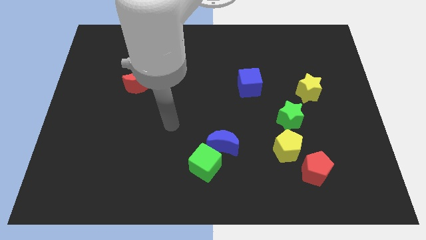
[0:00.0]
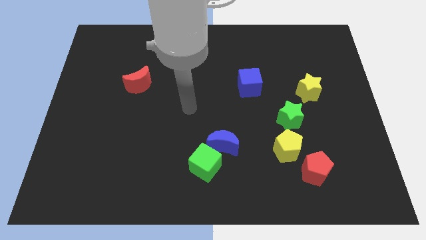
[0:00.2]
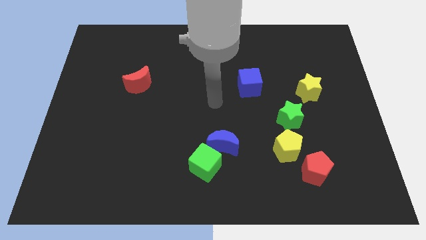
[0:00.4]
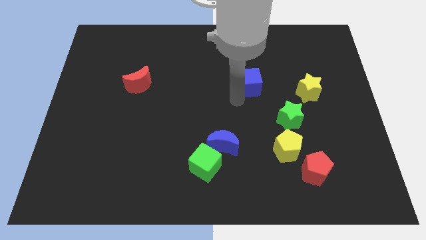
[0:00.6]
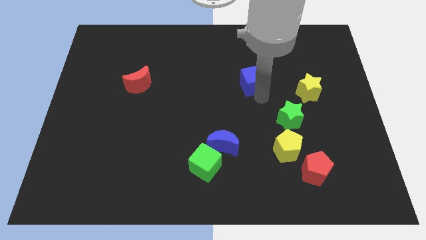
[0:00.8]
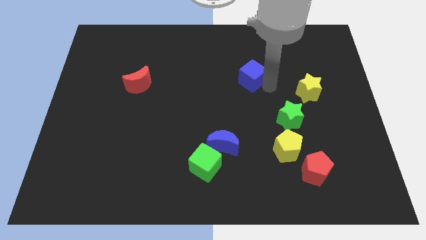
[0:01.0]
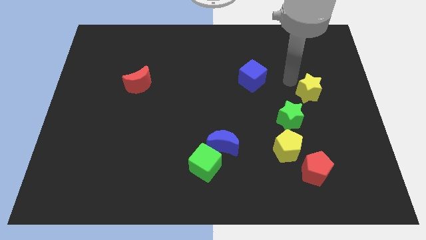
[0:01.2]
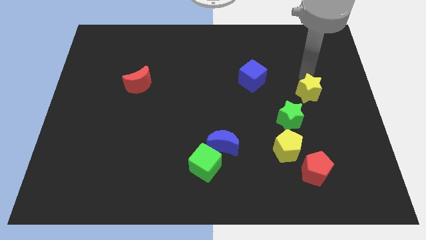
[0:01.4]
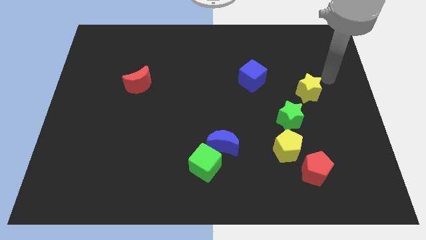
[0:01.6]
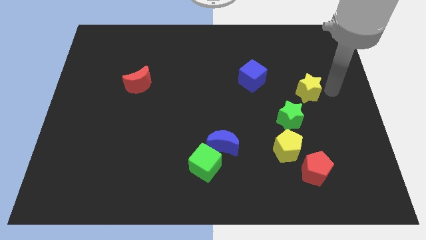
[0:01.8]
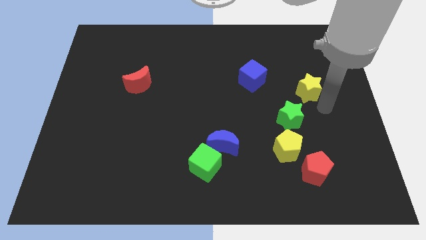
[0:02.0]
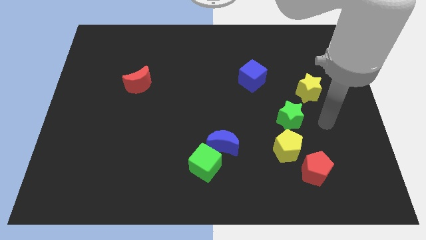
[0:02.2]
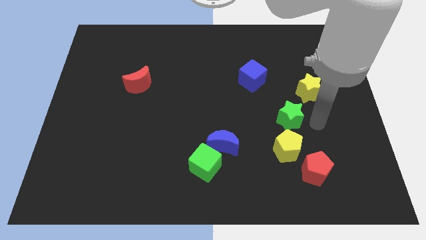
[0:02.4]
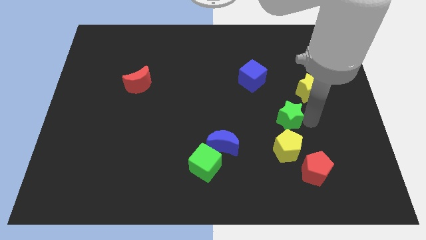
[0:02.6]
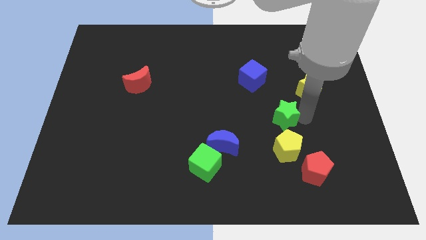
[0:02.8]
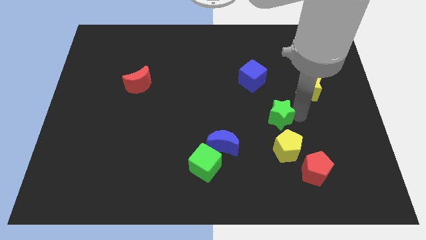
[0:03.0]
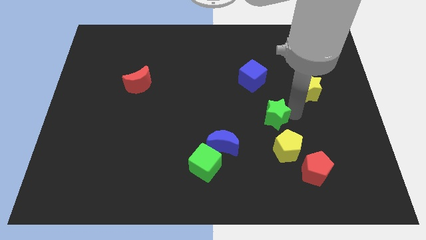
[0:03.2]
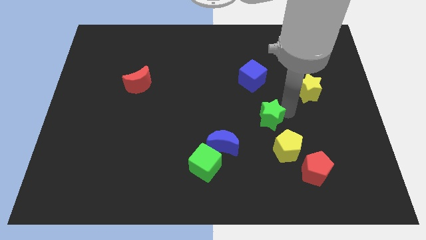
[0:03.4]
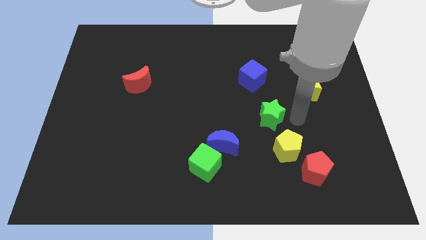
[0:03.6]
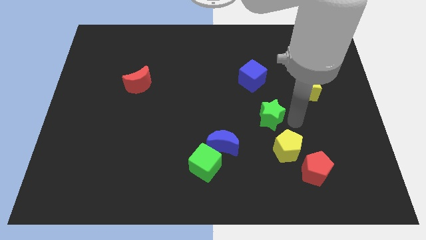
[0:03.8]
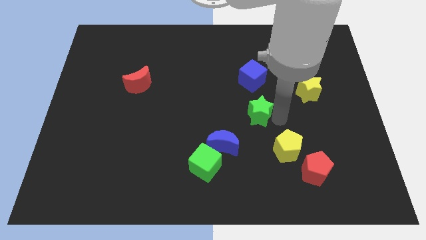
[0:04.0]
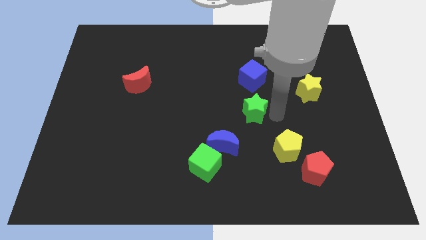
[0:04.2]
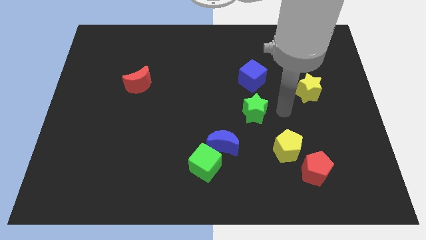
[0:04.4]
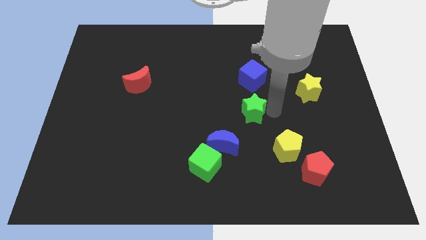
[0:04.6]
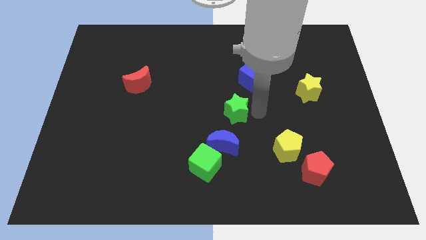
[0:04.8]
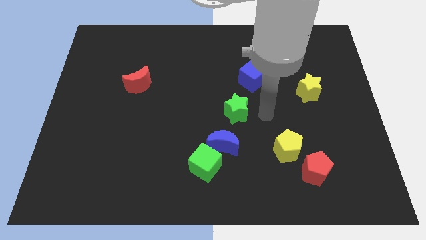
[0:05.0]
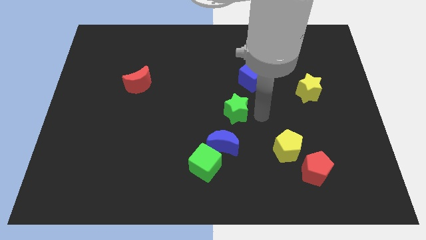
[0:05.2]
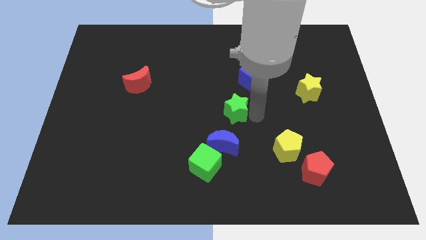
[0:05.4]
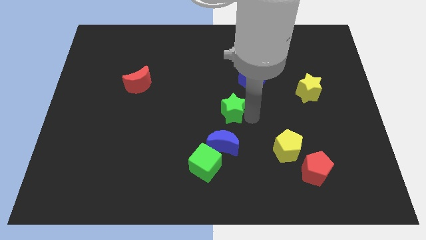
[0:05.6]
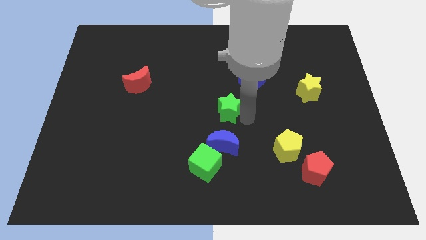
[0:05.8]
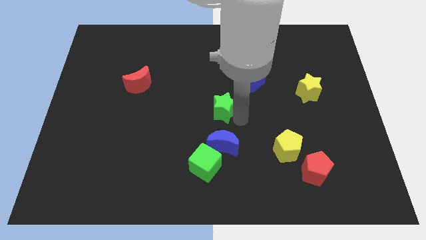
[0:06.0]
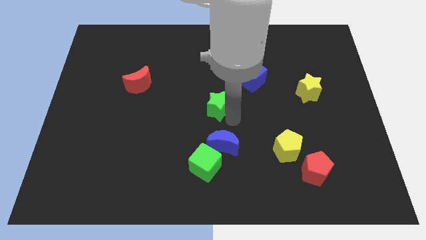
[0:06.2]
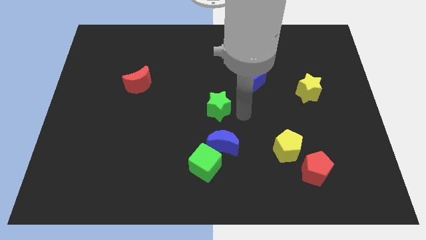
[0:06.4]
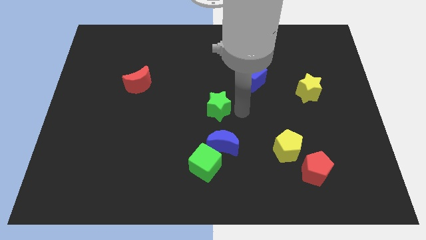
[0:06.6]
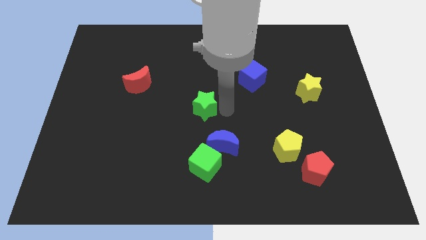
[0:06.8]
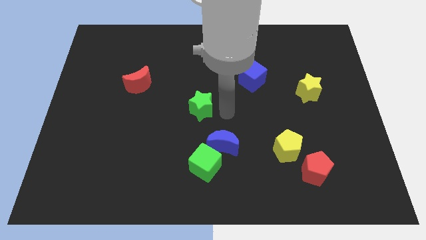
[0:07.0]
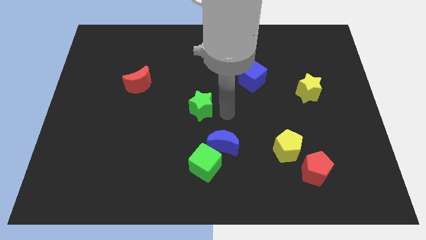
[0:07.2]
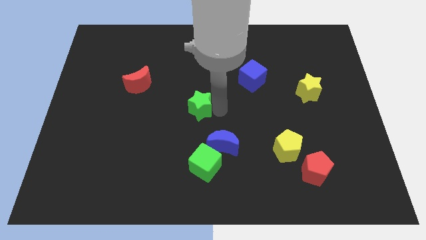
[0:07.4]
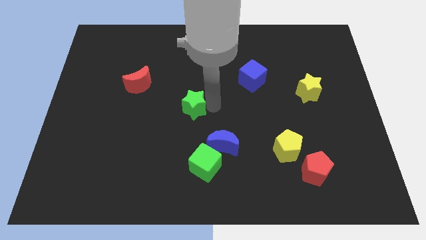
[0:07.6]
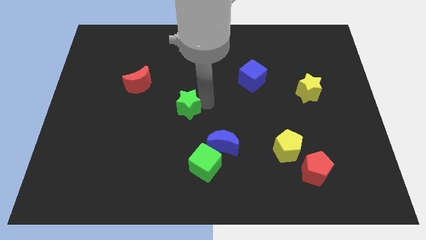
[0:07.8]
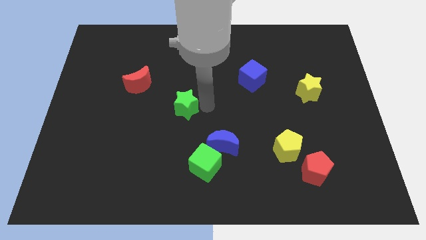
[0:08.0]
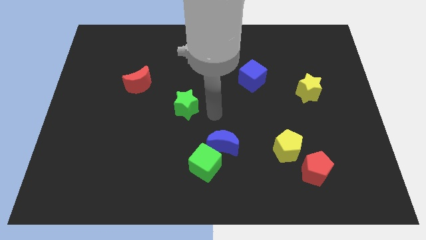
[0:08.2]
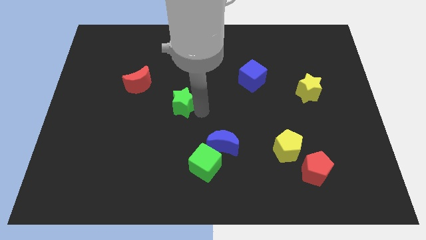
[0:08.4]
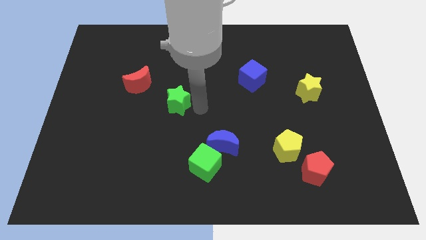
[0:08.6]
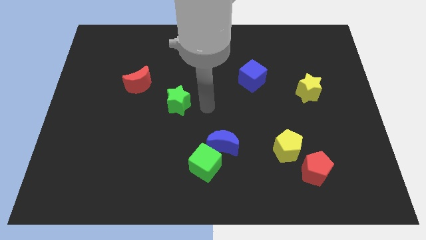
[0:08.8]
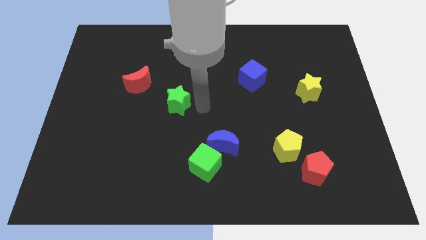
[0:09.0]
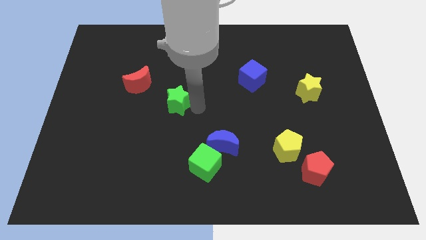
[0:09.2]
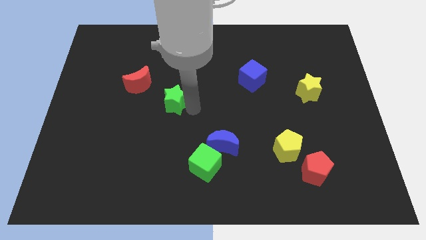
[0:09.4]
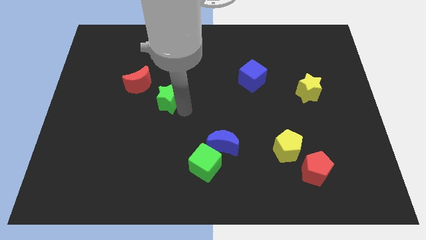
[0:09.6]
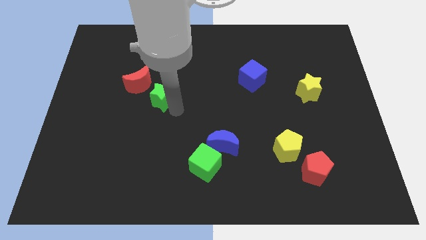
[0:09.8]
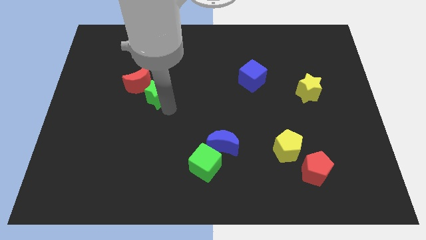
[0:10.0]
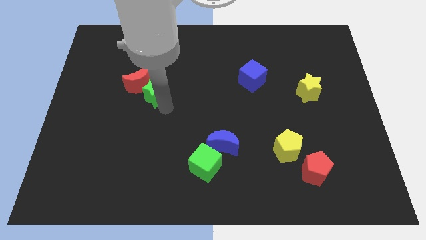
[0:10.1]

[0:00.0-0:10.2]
put the green star to the red moon

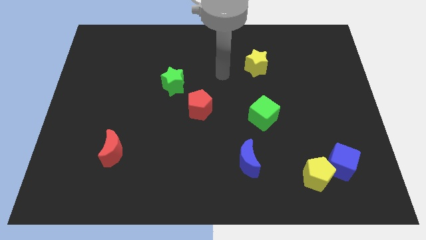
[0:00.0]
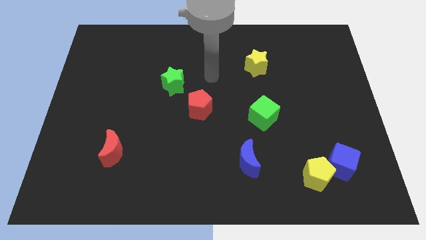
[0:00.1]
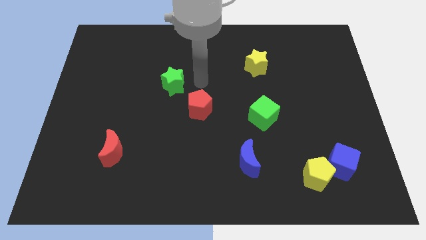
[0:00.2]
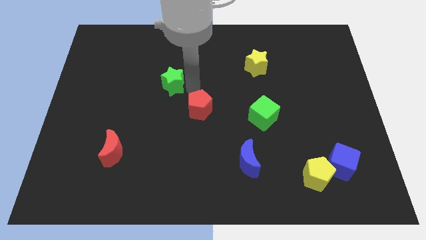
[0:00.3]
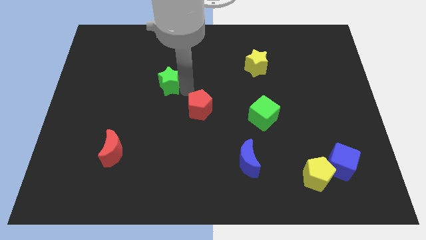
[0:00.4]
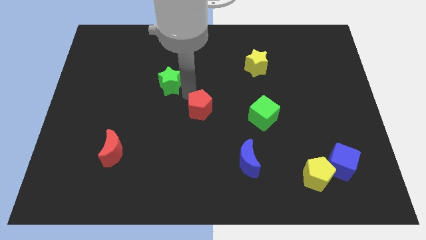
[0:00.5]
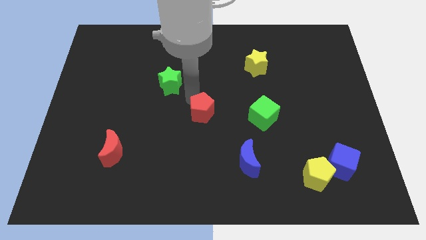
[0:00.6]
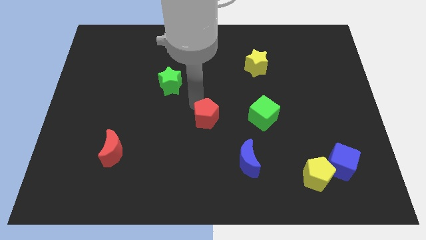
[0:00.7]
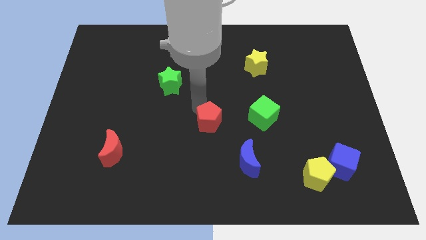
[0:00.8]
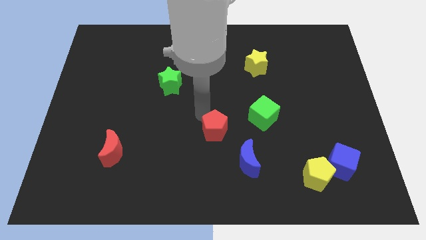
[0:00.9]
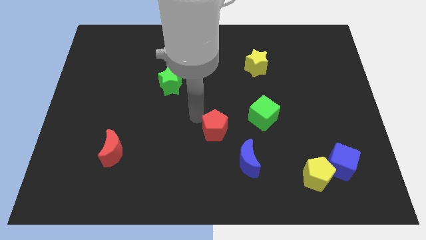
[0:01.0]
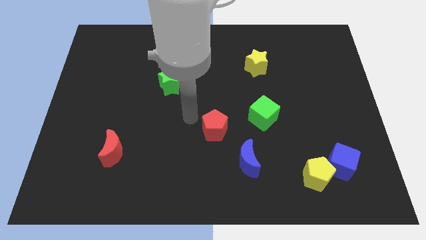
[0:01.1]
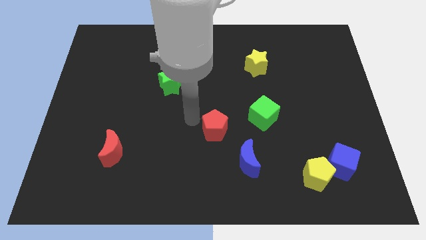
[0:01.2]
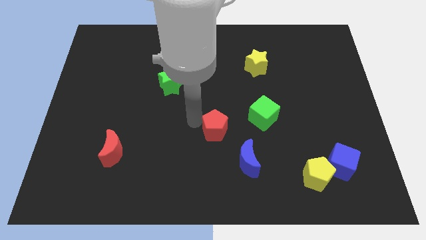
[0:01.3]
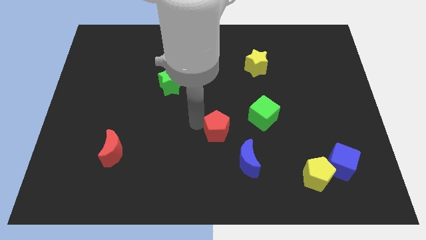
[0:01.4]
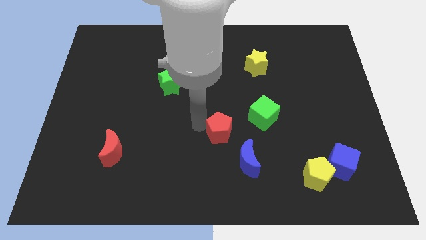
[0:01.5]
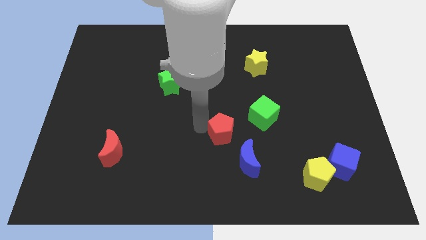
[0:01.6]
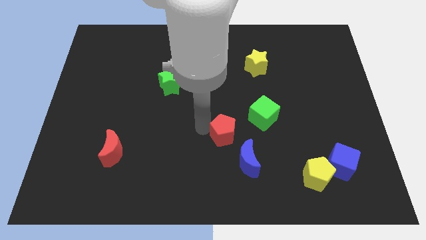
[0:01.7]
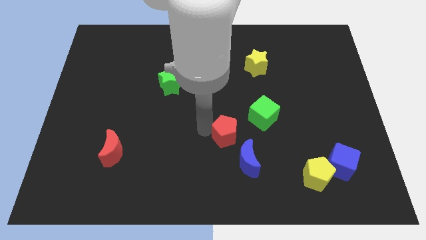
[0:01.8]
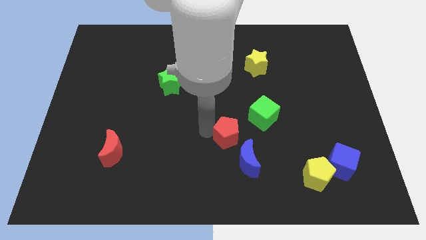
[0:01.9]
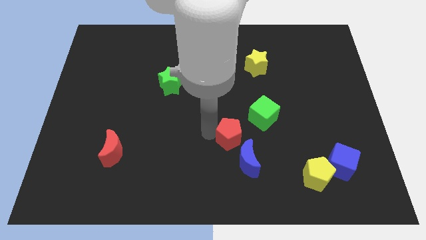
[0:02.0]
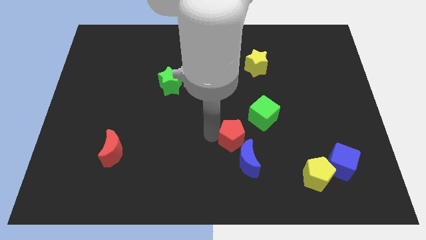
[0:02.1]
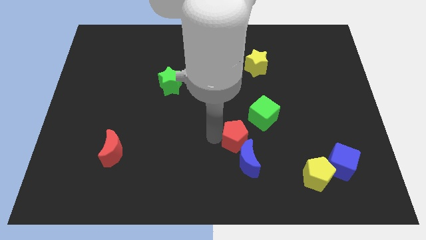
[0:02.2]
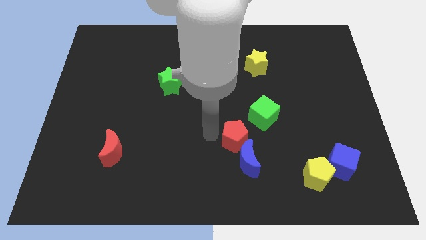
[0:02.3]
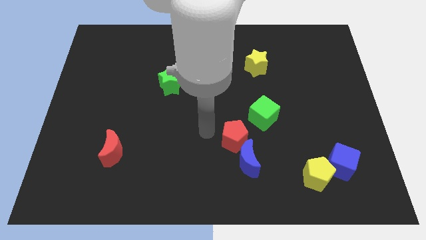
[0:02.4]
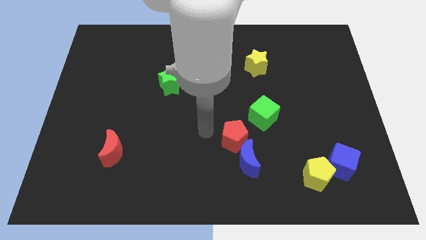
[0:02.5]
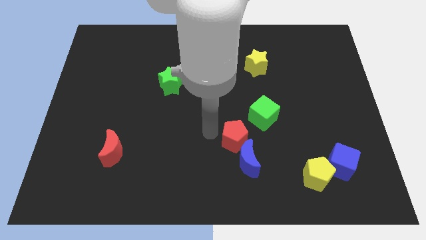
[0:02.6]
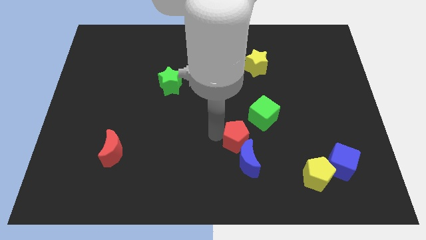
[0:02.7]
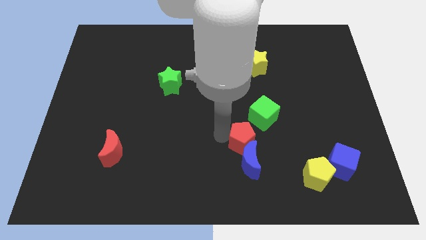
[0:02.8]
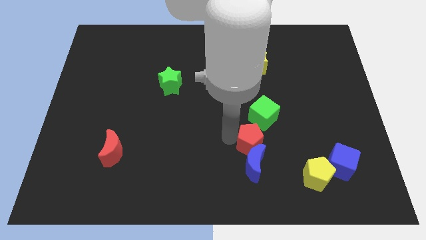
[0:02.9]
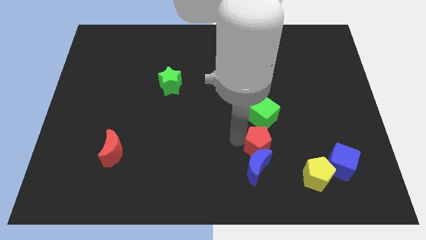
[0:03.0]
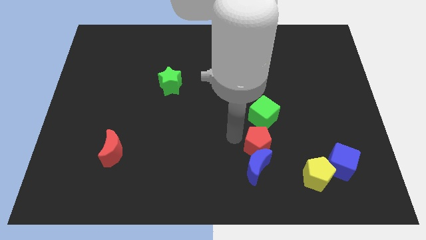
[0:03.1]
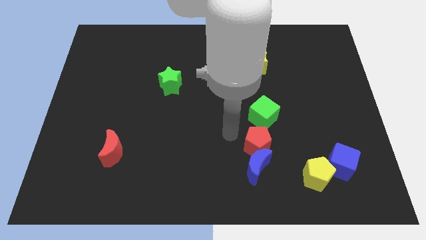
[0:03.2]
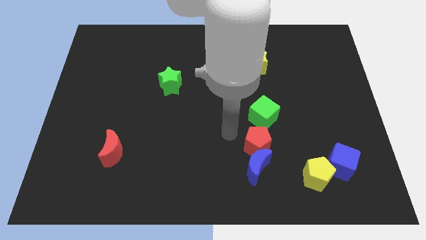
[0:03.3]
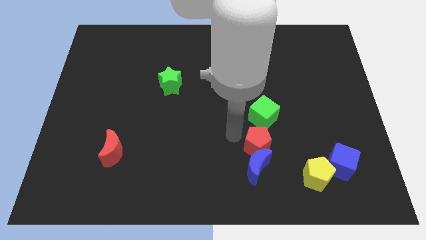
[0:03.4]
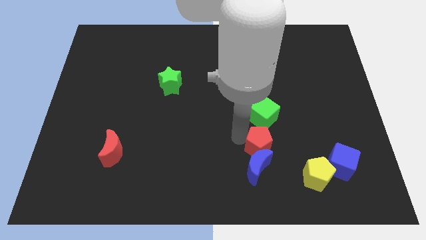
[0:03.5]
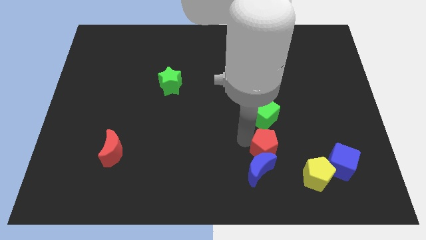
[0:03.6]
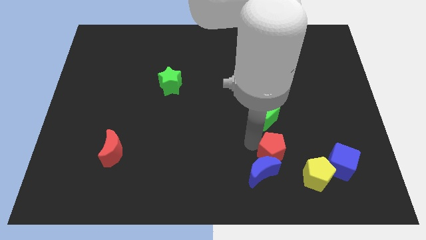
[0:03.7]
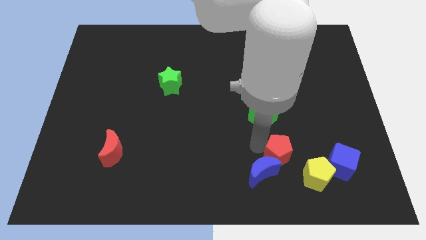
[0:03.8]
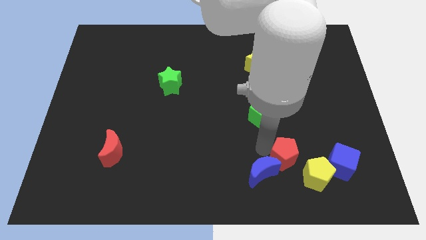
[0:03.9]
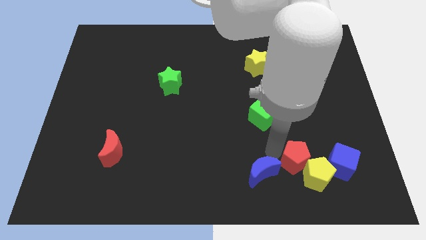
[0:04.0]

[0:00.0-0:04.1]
slide the red pentagon to the yellow pentagon
